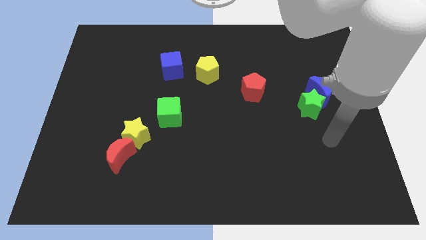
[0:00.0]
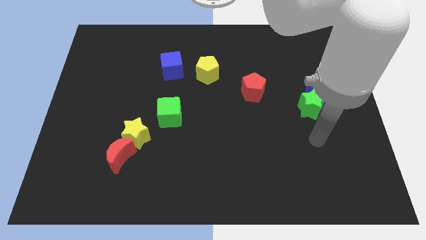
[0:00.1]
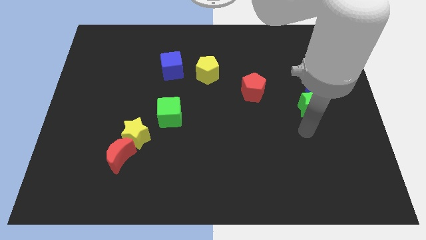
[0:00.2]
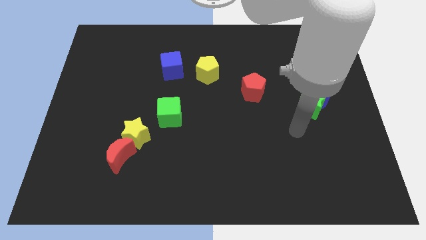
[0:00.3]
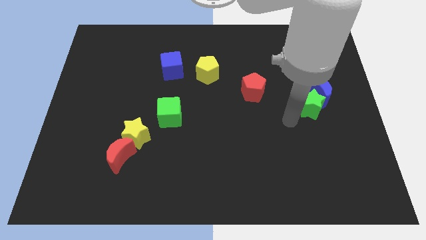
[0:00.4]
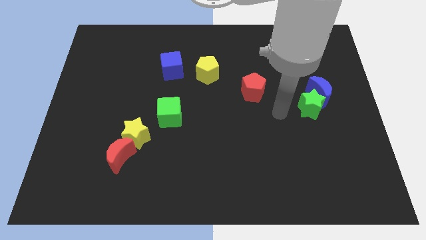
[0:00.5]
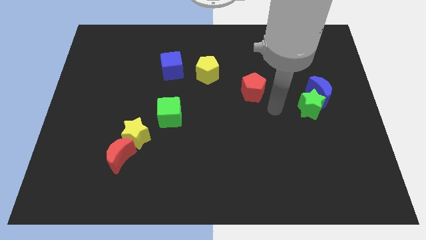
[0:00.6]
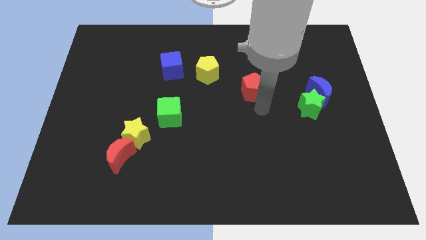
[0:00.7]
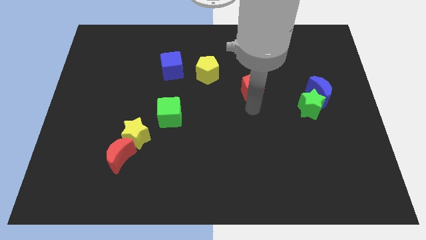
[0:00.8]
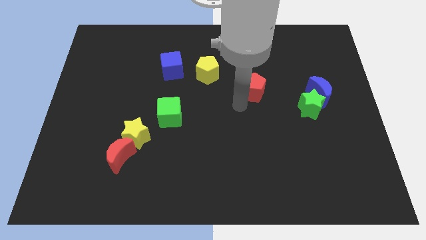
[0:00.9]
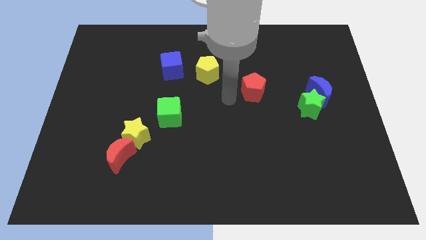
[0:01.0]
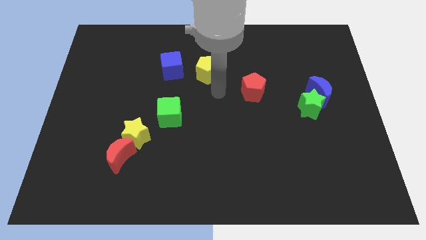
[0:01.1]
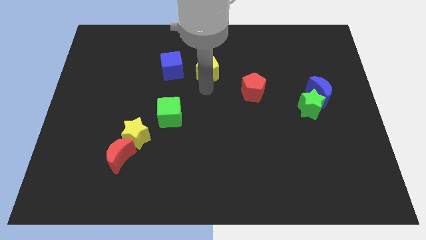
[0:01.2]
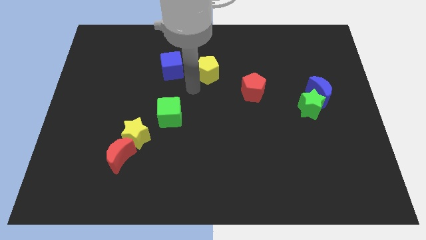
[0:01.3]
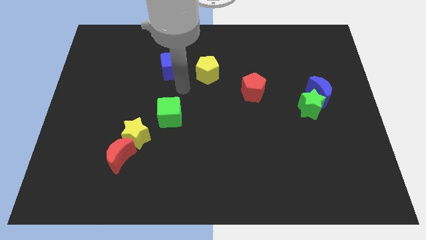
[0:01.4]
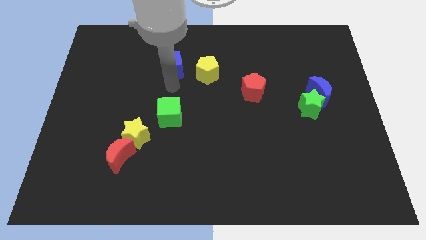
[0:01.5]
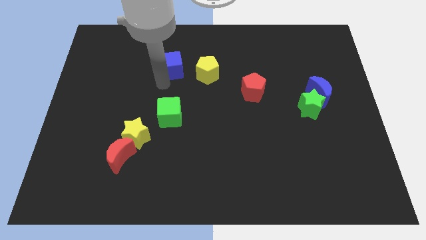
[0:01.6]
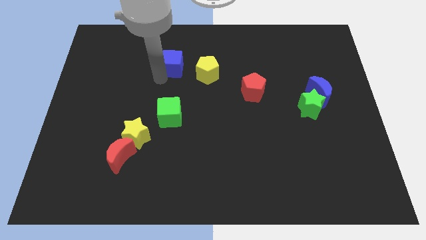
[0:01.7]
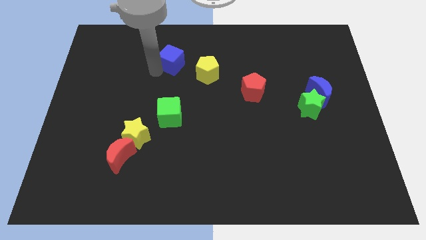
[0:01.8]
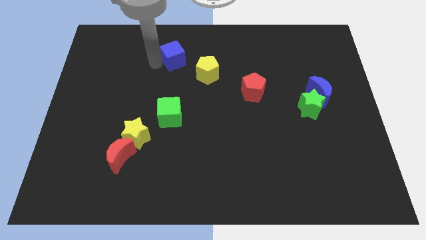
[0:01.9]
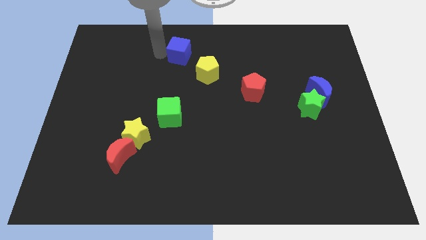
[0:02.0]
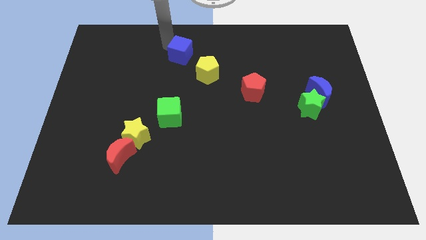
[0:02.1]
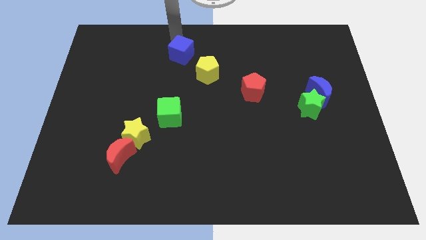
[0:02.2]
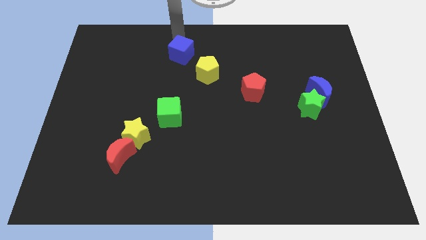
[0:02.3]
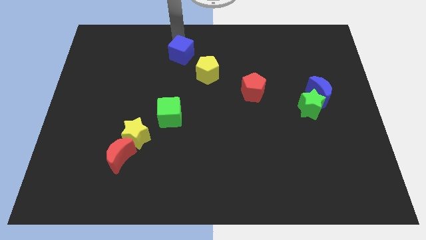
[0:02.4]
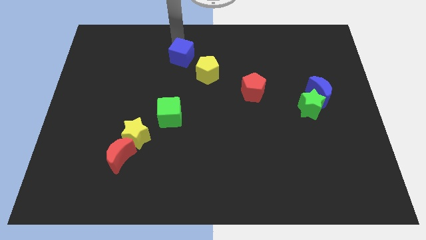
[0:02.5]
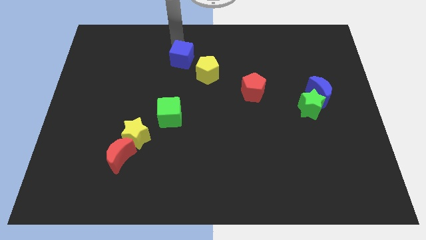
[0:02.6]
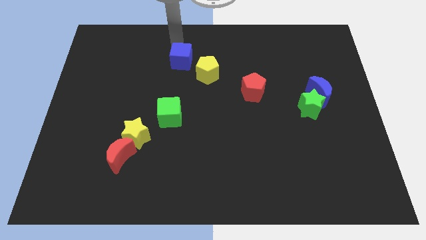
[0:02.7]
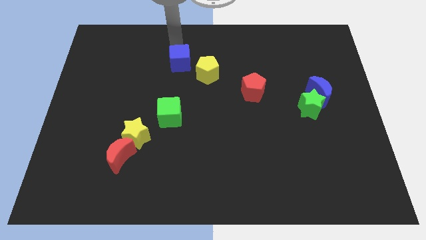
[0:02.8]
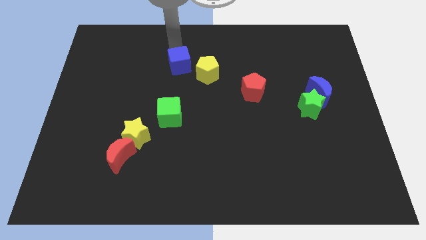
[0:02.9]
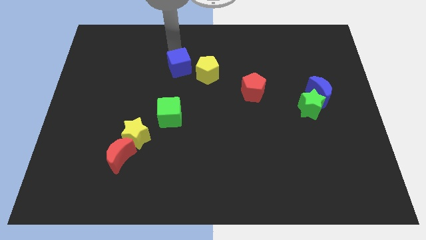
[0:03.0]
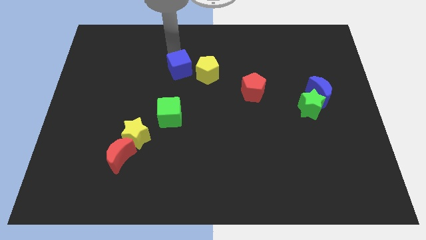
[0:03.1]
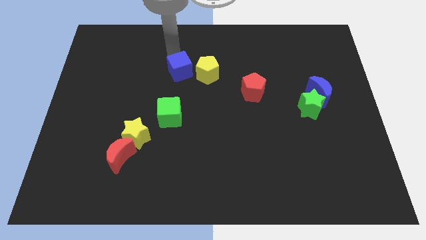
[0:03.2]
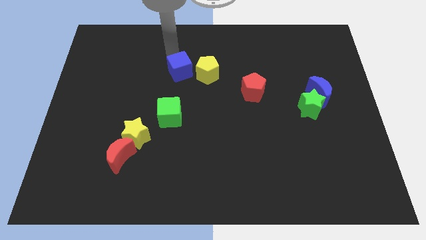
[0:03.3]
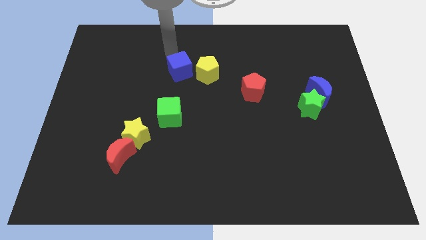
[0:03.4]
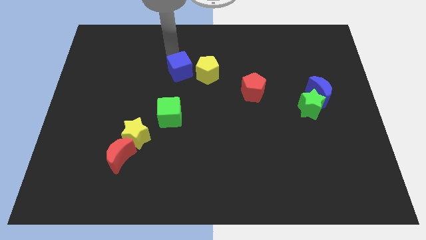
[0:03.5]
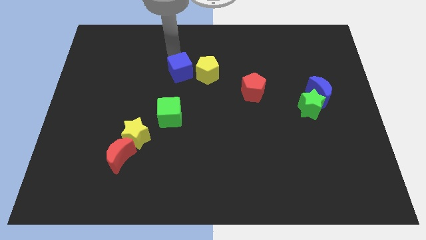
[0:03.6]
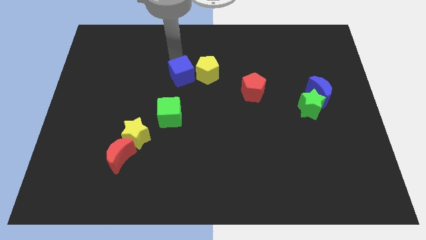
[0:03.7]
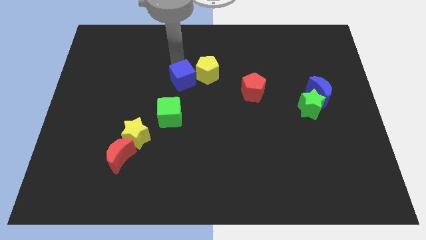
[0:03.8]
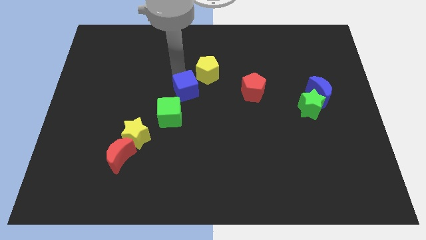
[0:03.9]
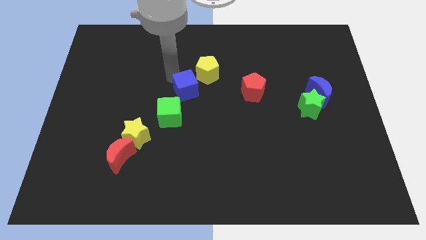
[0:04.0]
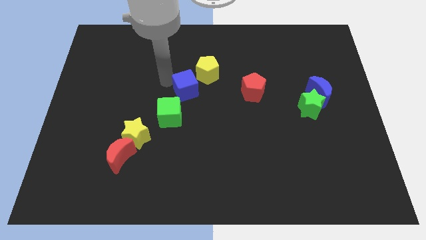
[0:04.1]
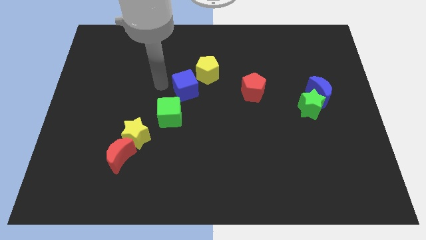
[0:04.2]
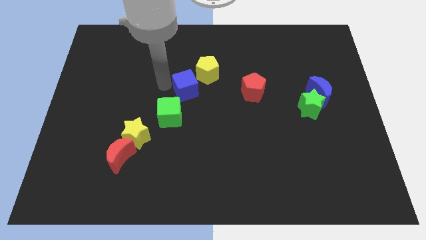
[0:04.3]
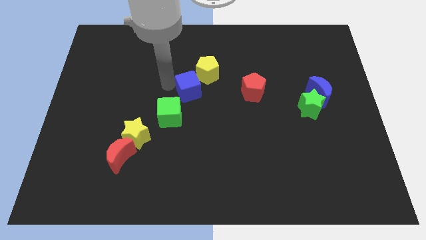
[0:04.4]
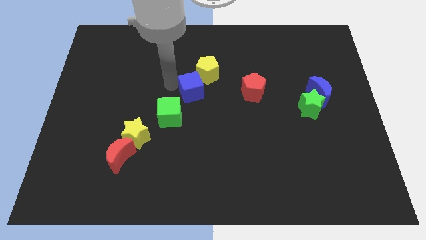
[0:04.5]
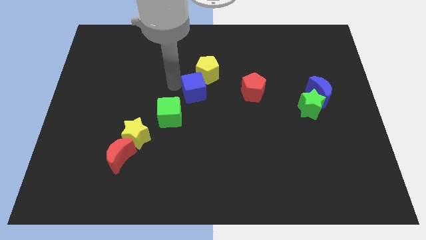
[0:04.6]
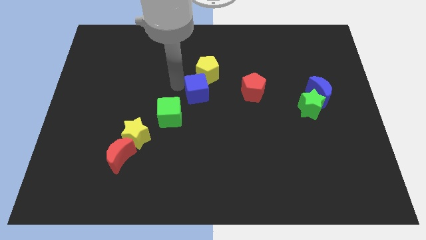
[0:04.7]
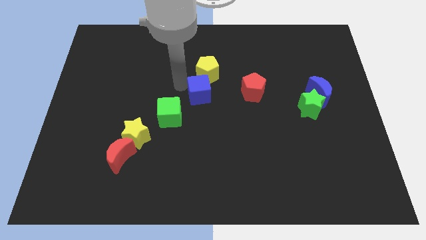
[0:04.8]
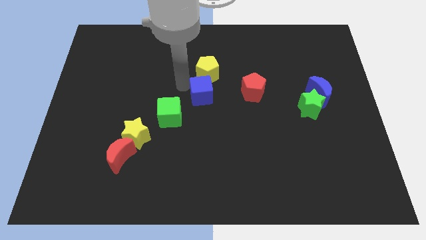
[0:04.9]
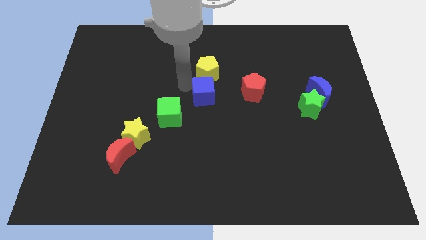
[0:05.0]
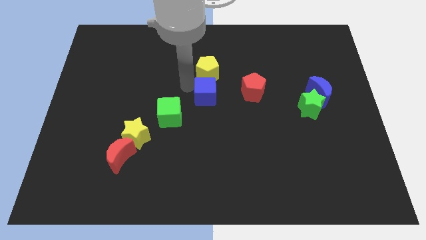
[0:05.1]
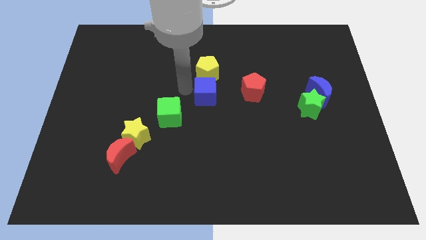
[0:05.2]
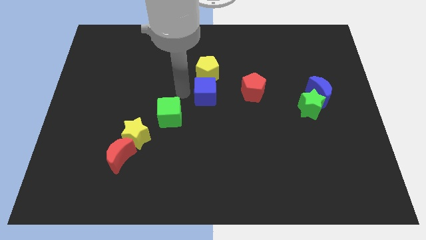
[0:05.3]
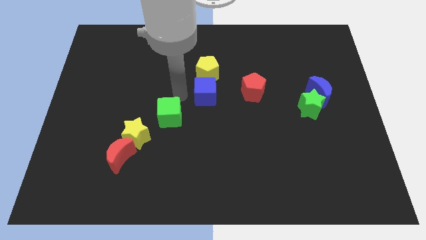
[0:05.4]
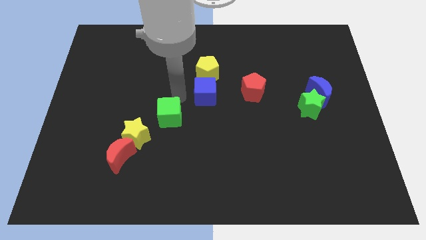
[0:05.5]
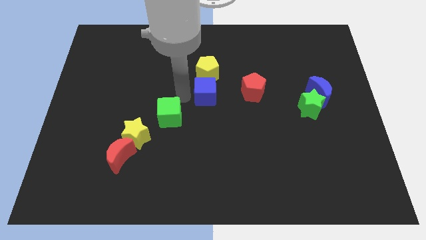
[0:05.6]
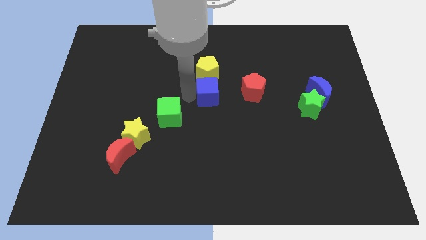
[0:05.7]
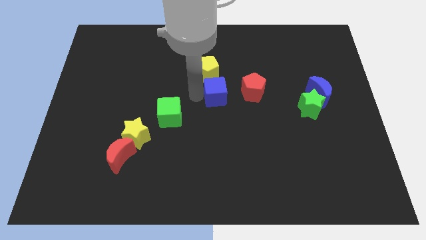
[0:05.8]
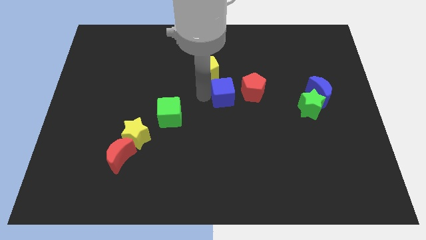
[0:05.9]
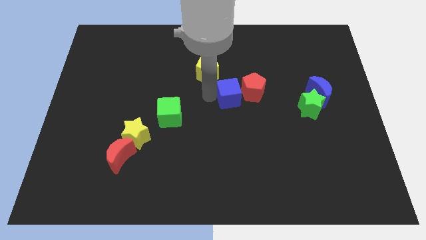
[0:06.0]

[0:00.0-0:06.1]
move the blue cube next to the red pentagon
